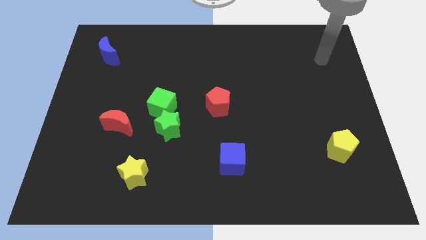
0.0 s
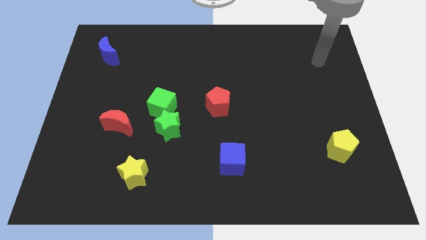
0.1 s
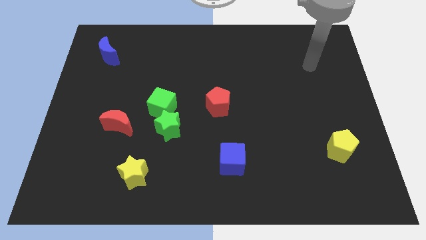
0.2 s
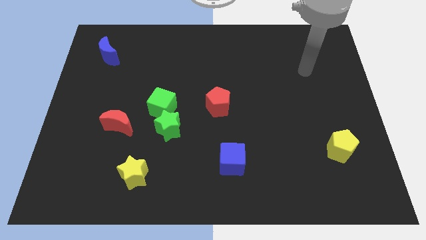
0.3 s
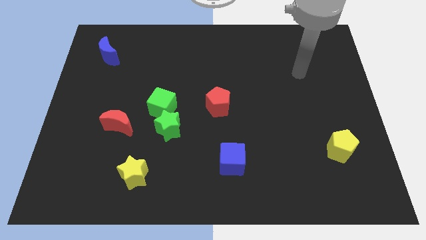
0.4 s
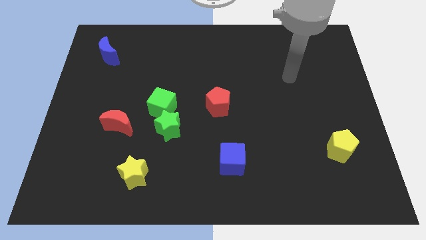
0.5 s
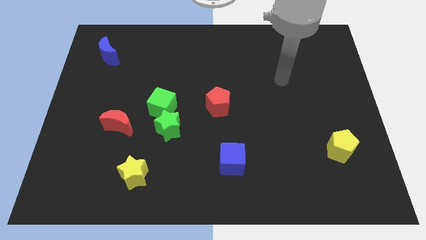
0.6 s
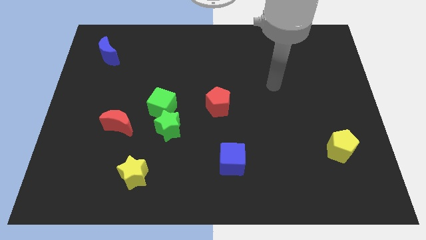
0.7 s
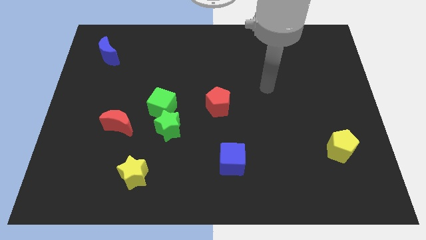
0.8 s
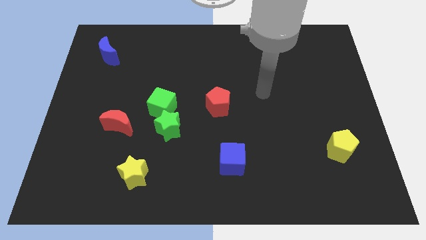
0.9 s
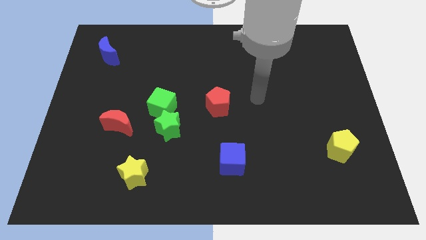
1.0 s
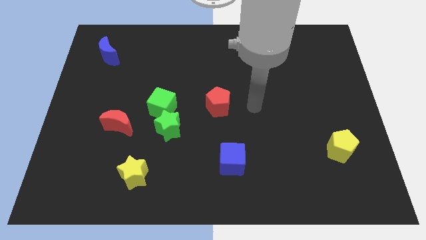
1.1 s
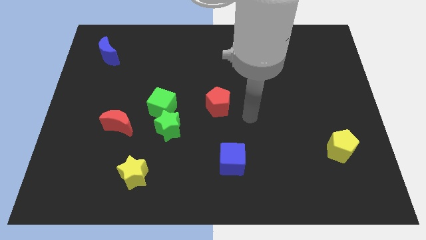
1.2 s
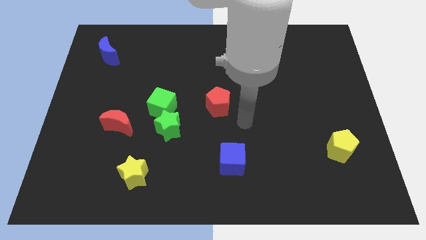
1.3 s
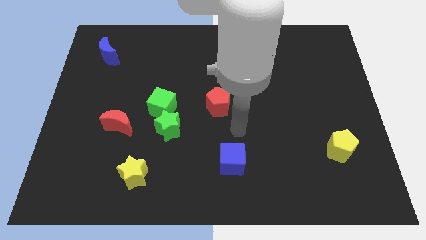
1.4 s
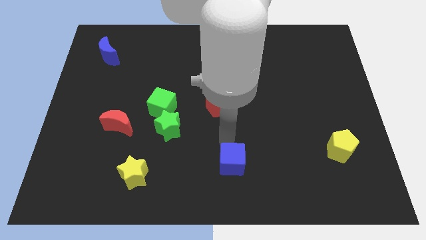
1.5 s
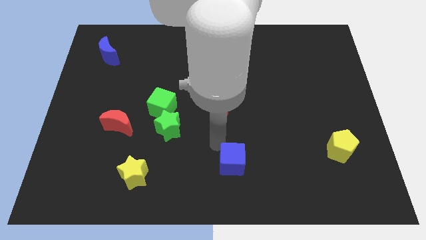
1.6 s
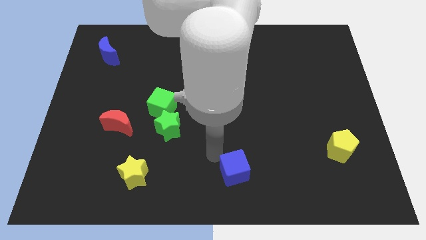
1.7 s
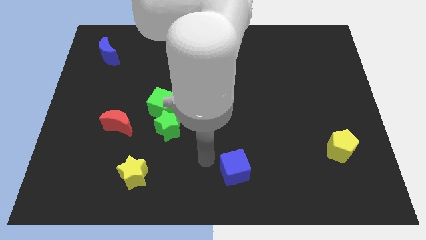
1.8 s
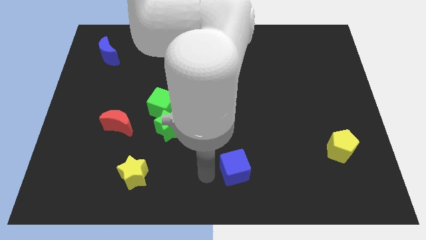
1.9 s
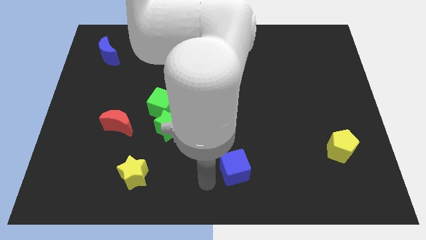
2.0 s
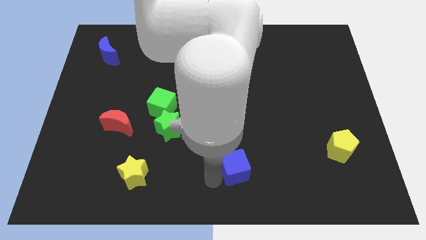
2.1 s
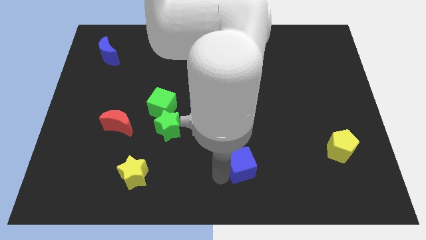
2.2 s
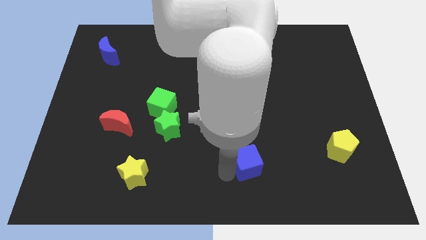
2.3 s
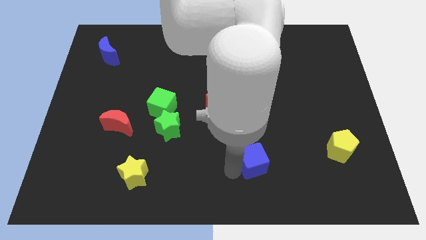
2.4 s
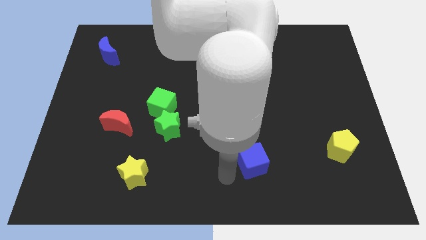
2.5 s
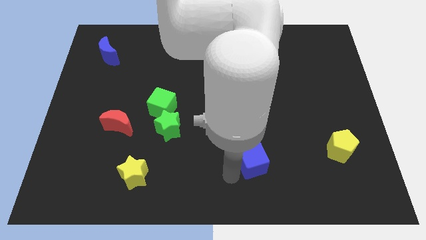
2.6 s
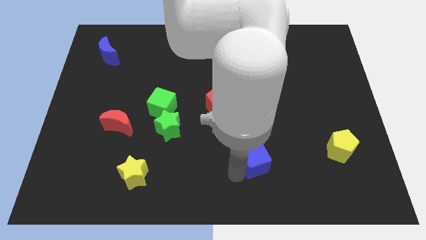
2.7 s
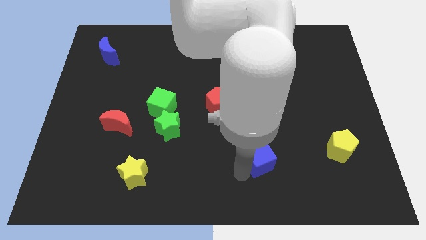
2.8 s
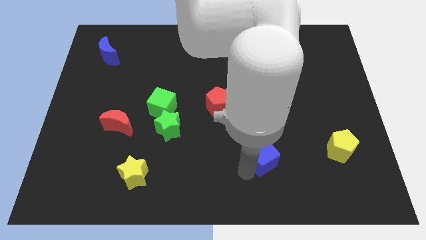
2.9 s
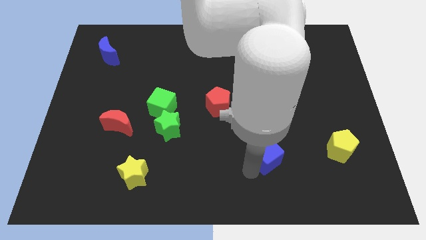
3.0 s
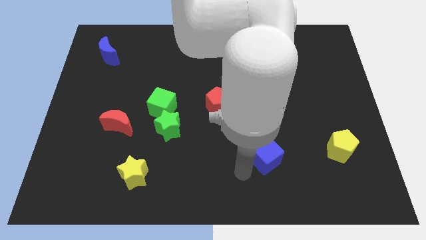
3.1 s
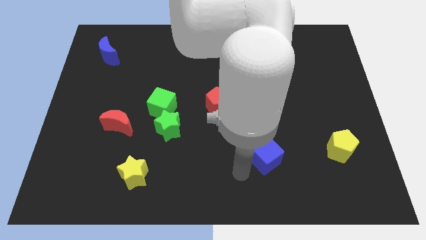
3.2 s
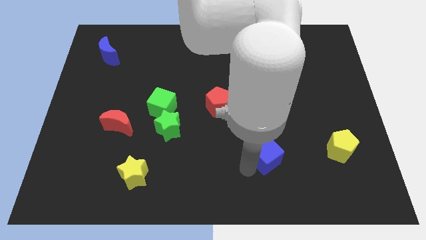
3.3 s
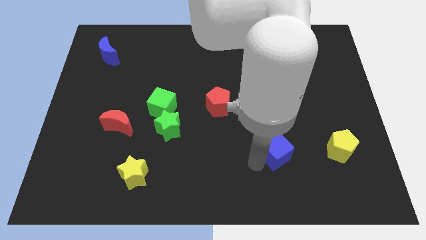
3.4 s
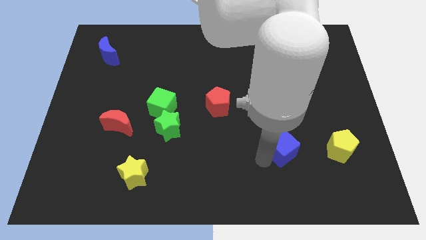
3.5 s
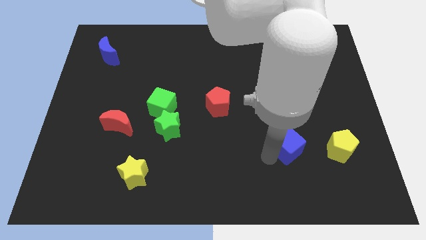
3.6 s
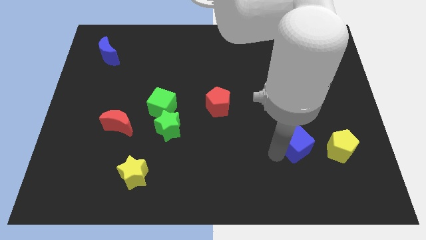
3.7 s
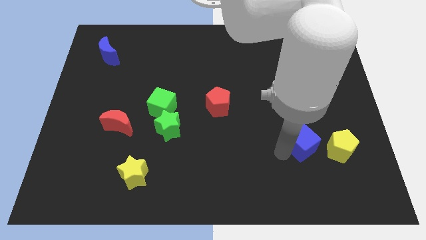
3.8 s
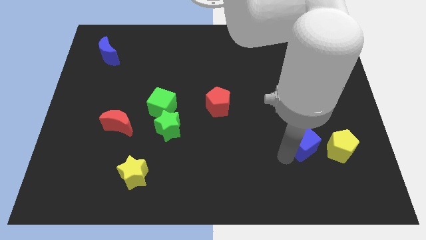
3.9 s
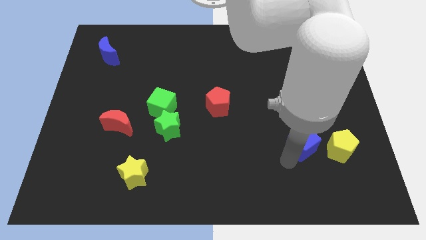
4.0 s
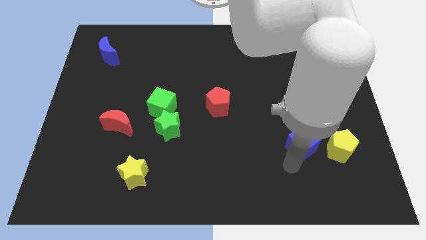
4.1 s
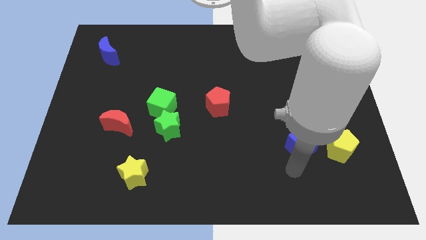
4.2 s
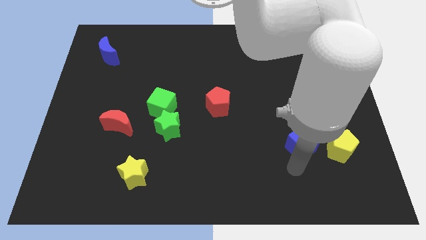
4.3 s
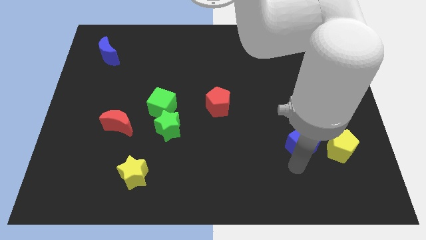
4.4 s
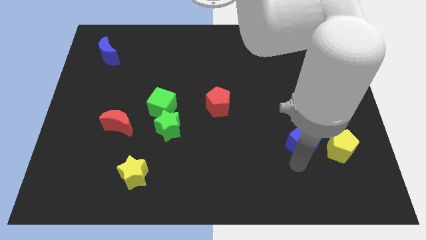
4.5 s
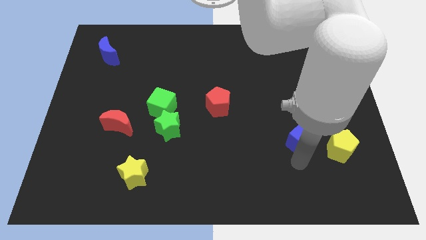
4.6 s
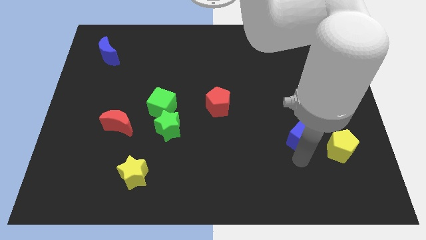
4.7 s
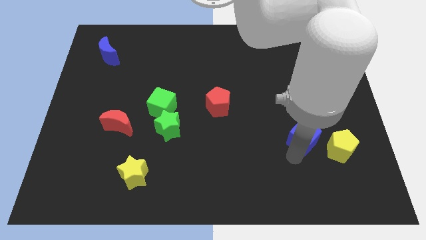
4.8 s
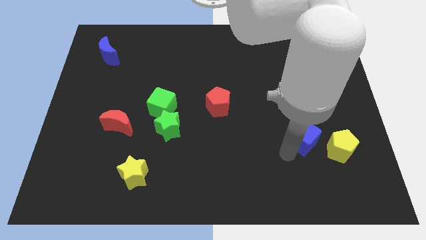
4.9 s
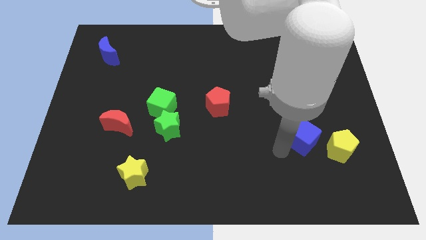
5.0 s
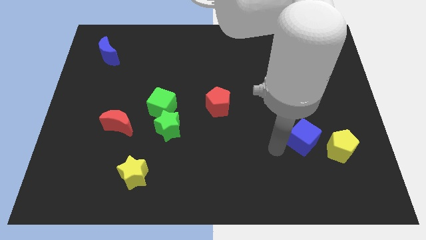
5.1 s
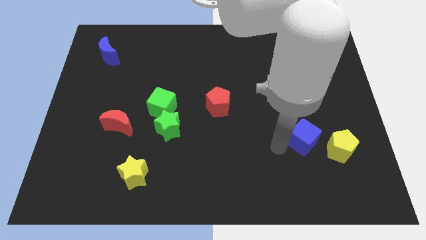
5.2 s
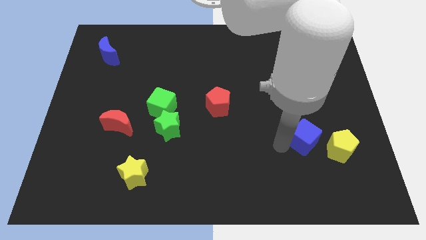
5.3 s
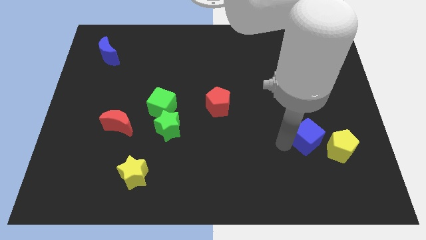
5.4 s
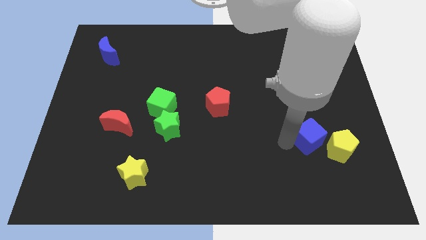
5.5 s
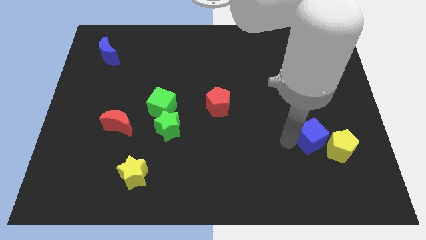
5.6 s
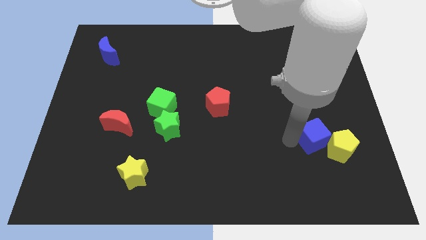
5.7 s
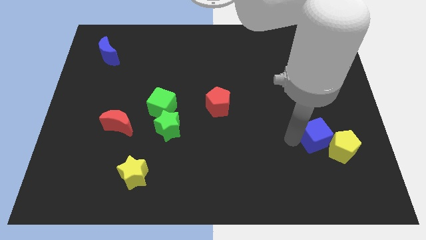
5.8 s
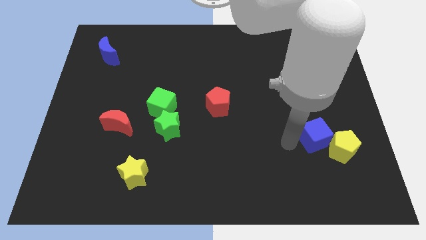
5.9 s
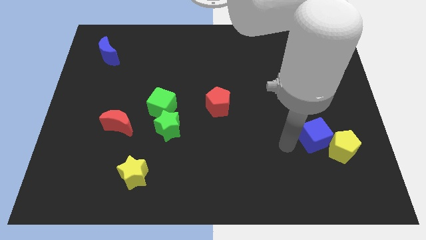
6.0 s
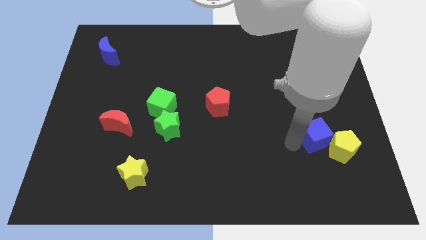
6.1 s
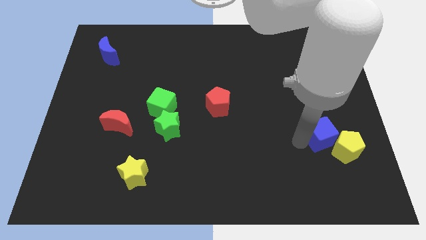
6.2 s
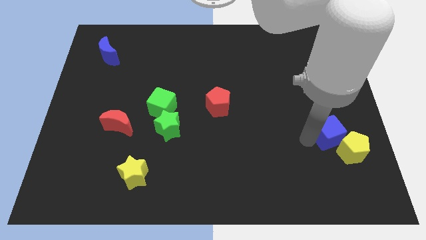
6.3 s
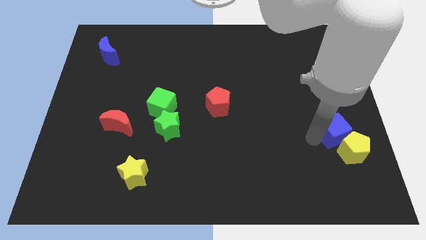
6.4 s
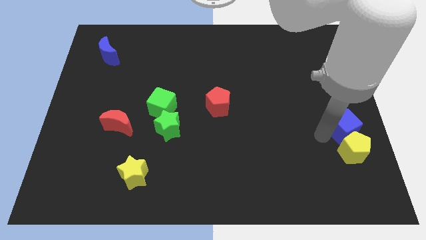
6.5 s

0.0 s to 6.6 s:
slide the blue cube to the right side
